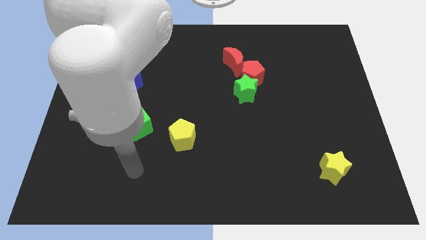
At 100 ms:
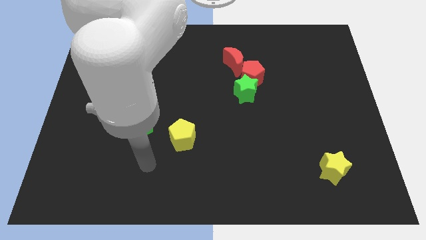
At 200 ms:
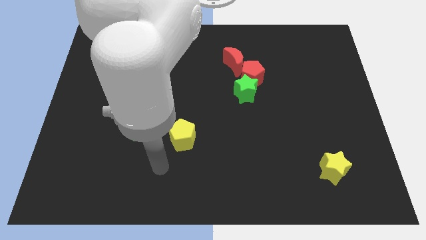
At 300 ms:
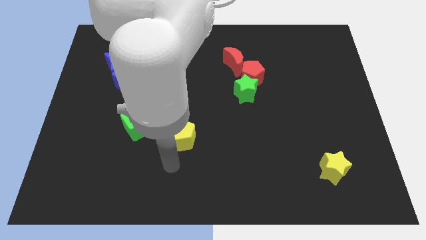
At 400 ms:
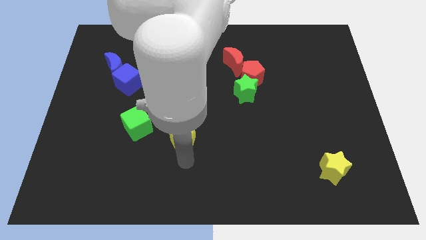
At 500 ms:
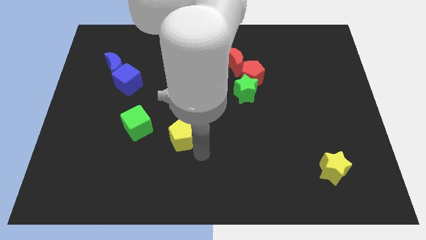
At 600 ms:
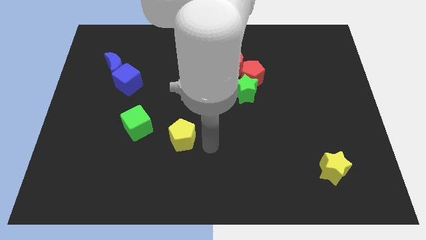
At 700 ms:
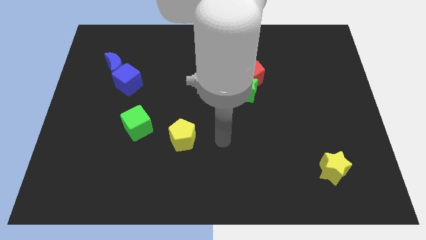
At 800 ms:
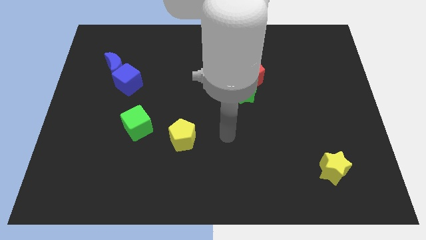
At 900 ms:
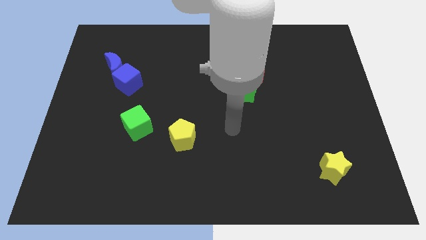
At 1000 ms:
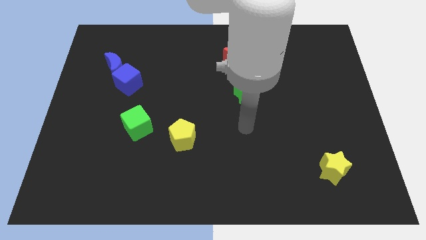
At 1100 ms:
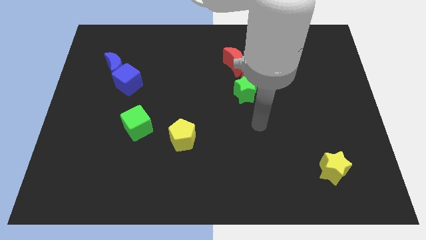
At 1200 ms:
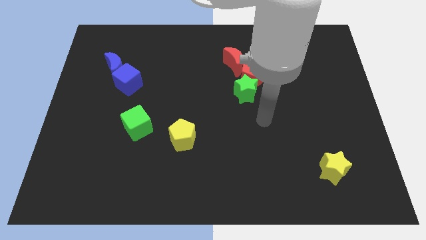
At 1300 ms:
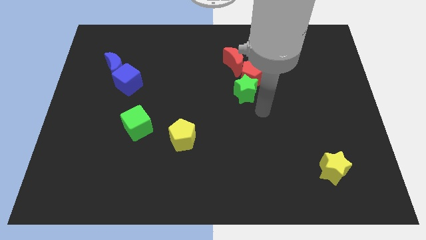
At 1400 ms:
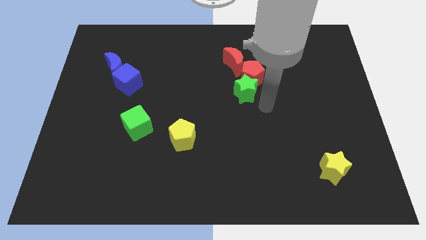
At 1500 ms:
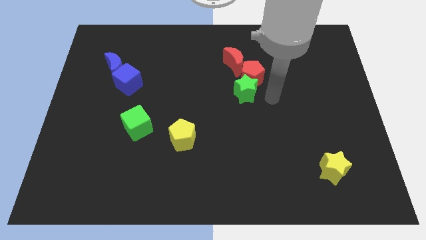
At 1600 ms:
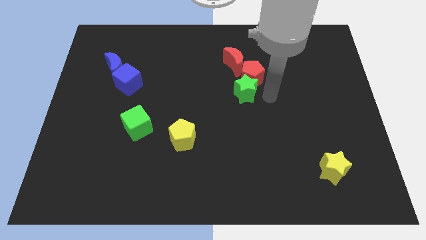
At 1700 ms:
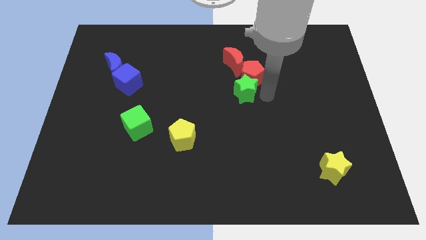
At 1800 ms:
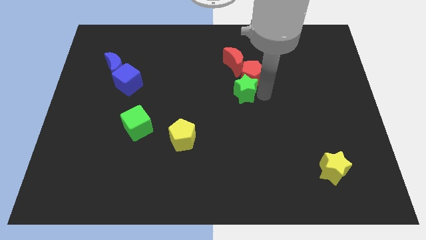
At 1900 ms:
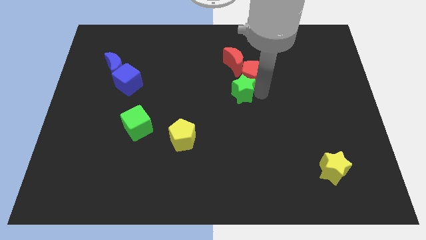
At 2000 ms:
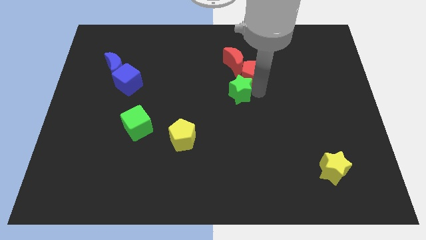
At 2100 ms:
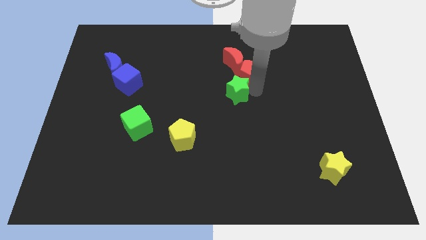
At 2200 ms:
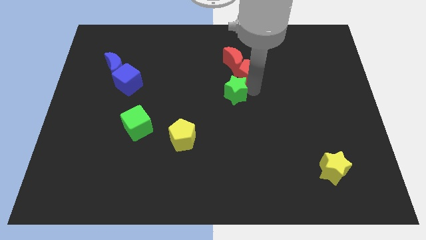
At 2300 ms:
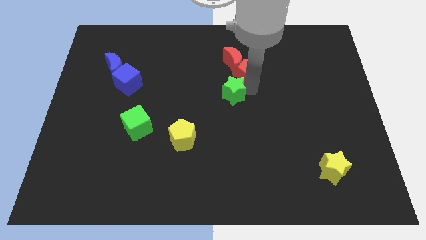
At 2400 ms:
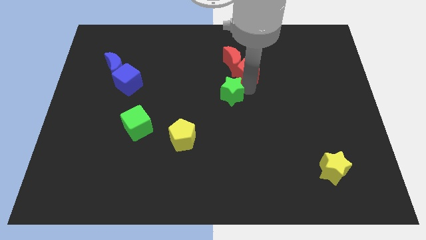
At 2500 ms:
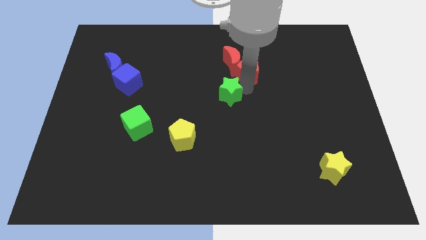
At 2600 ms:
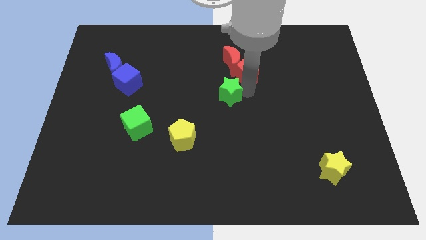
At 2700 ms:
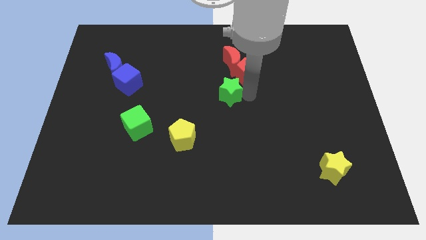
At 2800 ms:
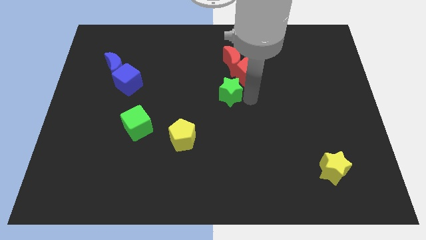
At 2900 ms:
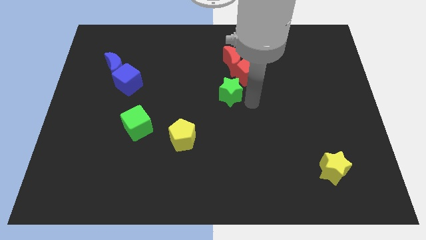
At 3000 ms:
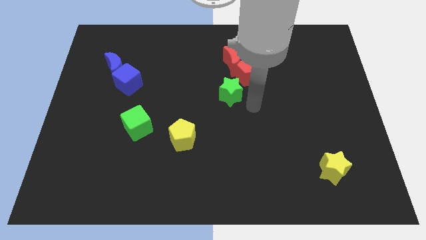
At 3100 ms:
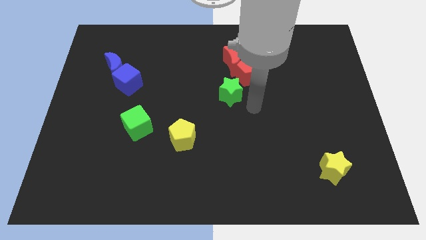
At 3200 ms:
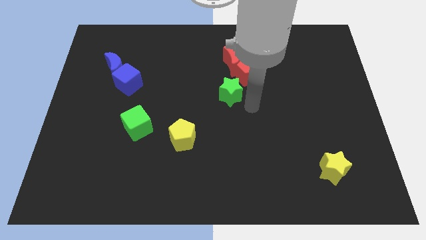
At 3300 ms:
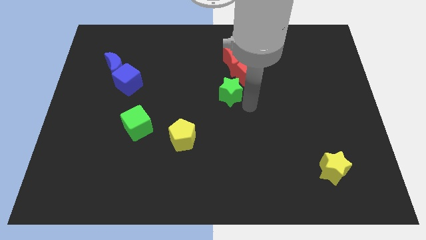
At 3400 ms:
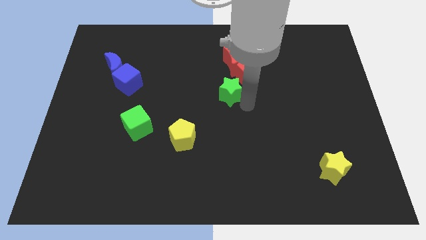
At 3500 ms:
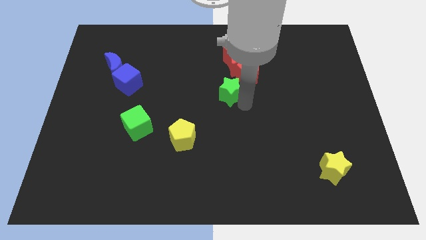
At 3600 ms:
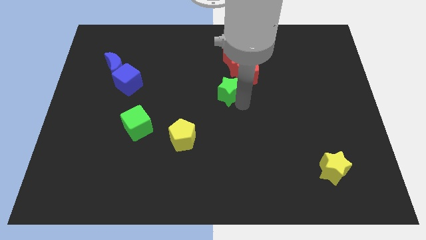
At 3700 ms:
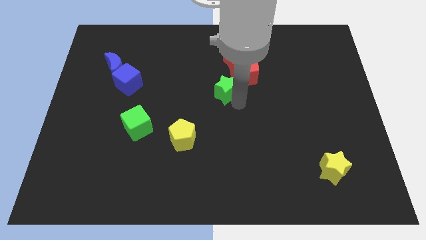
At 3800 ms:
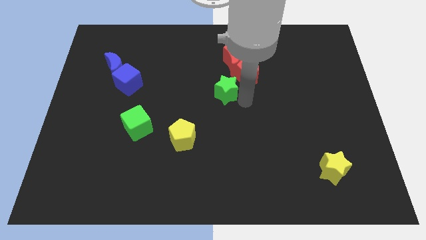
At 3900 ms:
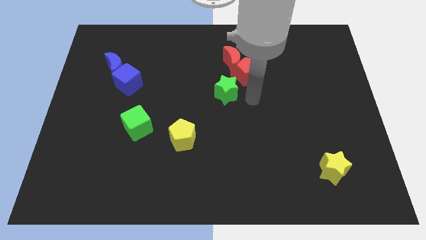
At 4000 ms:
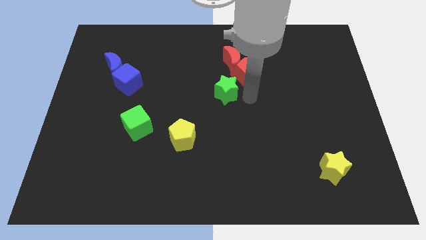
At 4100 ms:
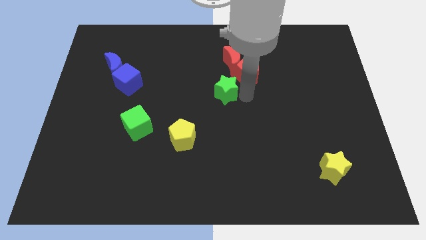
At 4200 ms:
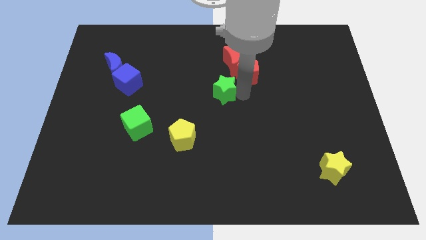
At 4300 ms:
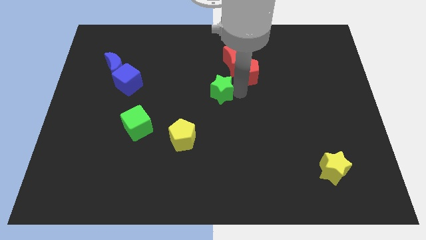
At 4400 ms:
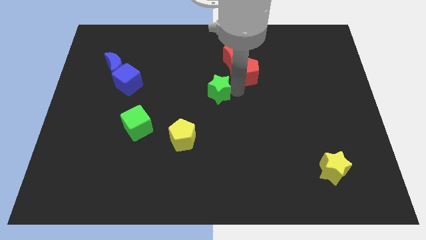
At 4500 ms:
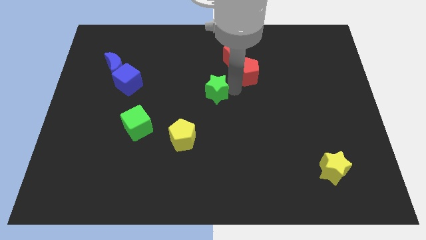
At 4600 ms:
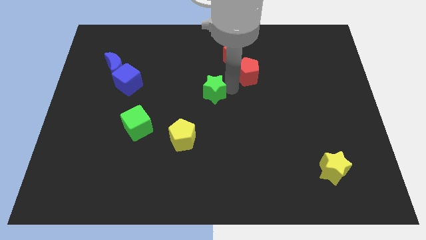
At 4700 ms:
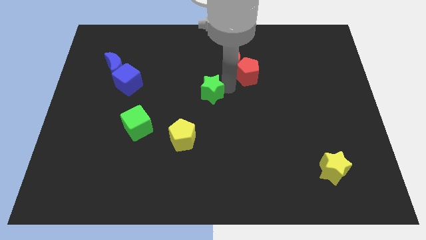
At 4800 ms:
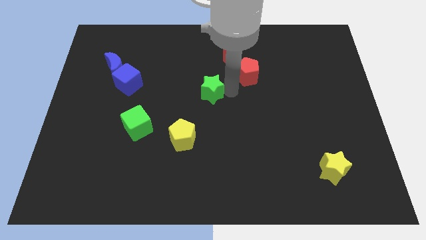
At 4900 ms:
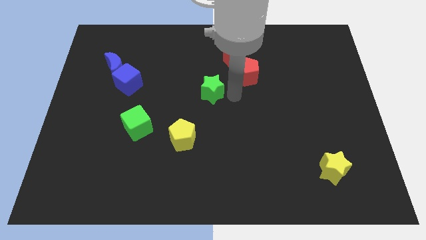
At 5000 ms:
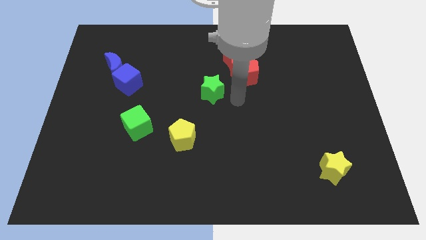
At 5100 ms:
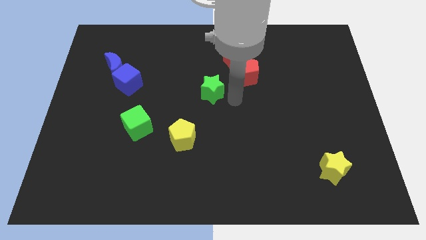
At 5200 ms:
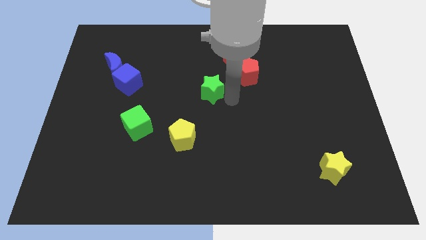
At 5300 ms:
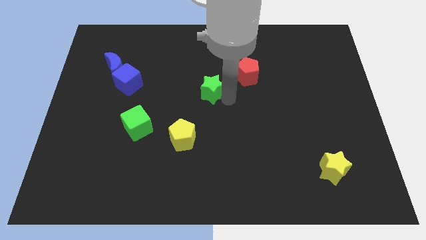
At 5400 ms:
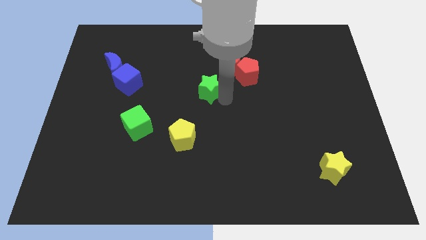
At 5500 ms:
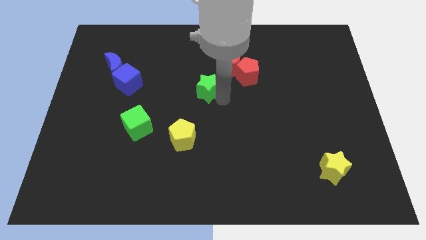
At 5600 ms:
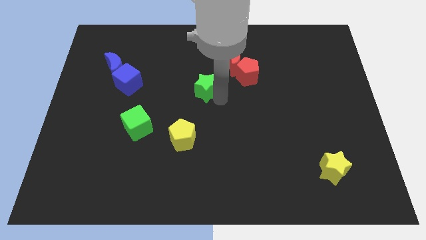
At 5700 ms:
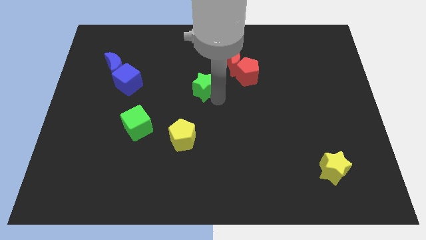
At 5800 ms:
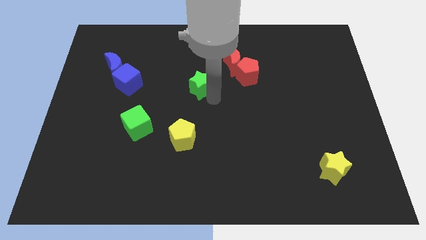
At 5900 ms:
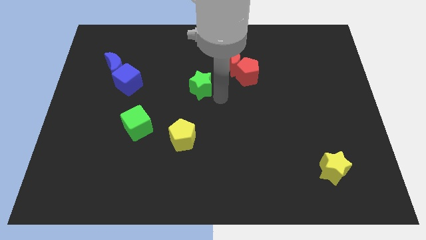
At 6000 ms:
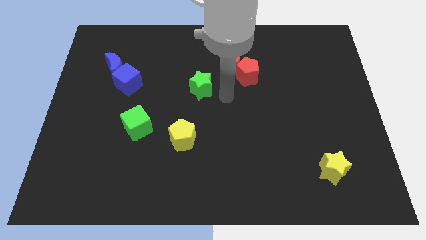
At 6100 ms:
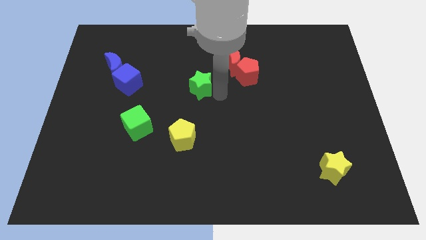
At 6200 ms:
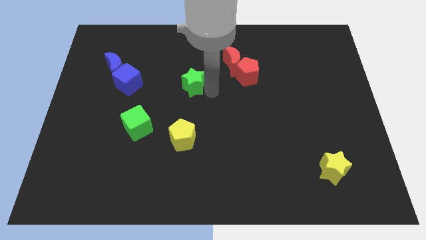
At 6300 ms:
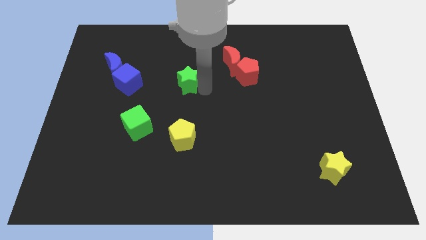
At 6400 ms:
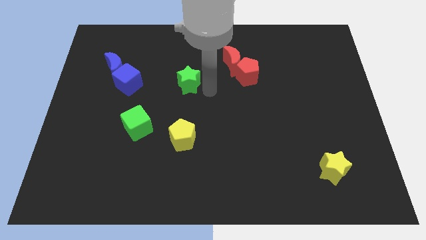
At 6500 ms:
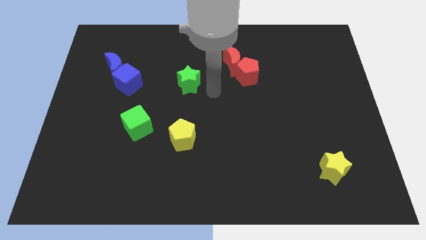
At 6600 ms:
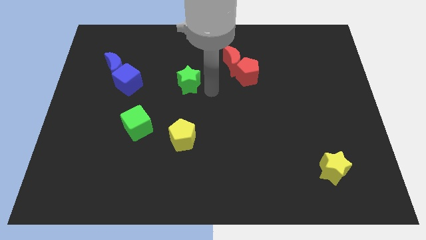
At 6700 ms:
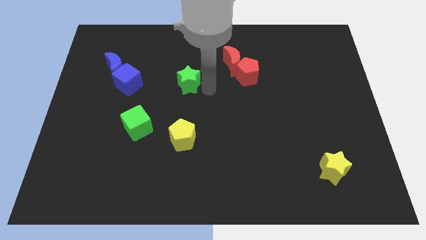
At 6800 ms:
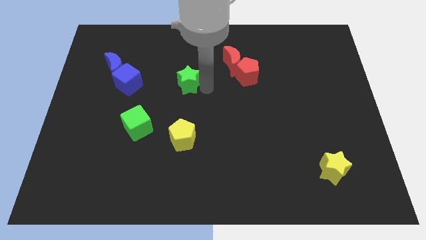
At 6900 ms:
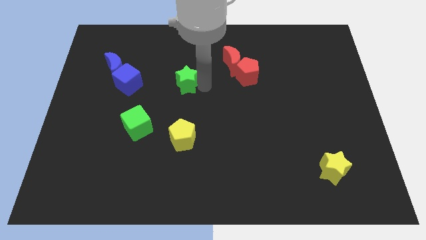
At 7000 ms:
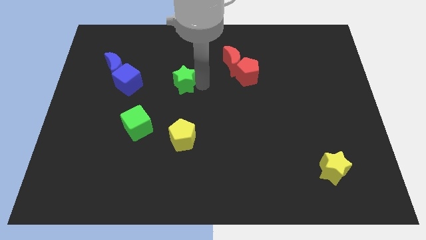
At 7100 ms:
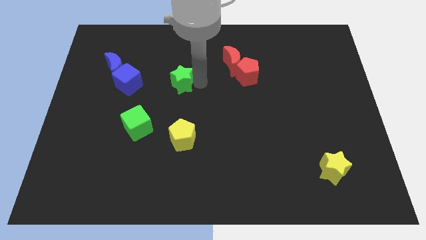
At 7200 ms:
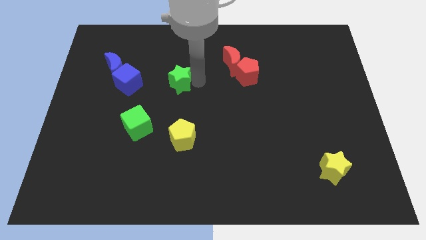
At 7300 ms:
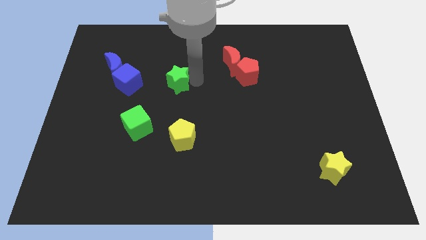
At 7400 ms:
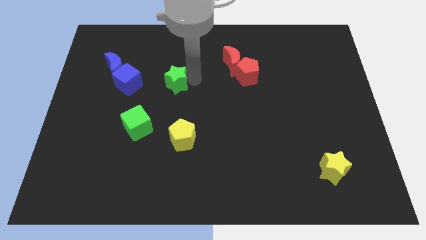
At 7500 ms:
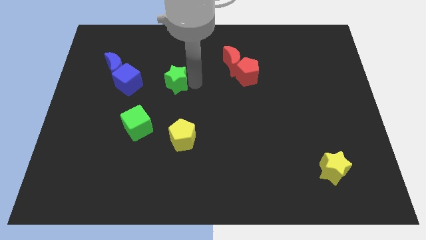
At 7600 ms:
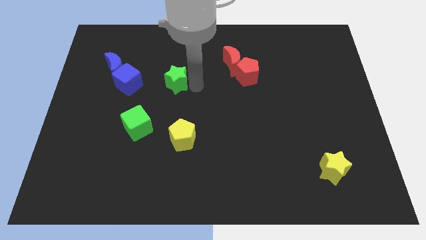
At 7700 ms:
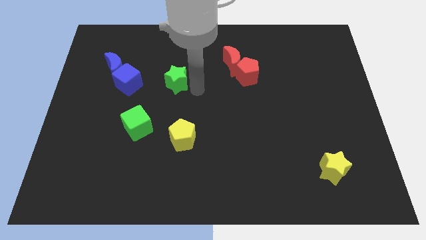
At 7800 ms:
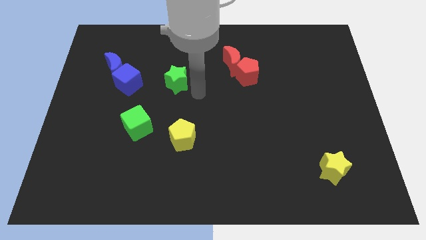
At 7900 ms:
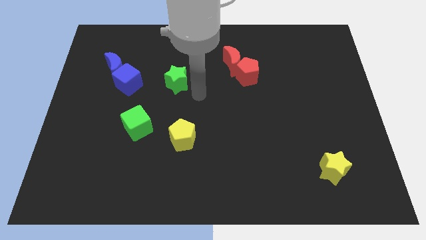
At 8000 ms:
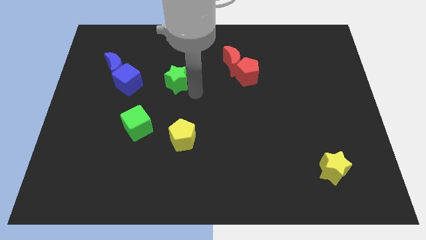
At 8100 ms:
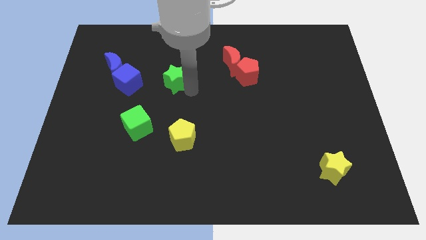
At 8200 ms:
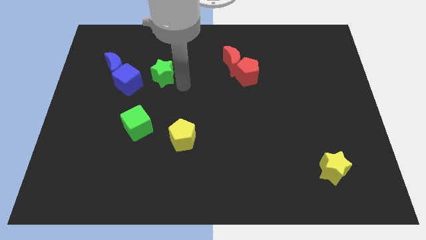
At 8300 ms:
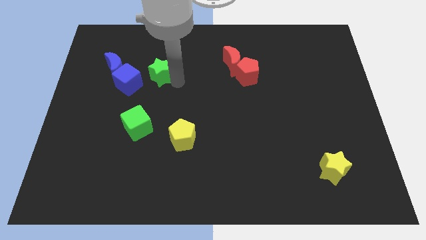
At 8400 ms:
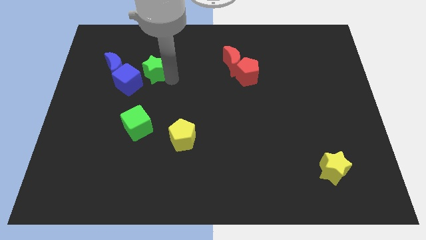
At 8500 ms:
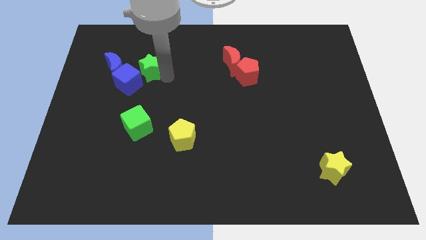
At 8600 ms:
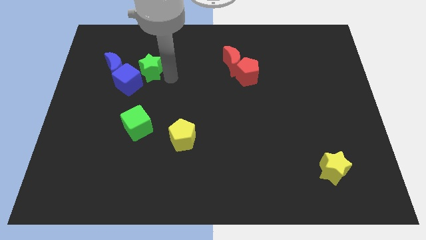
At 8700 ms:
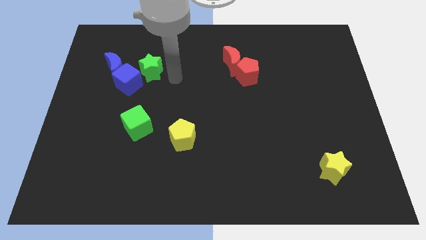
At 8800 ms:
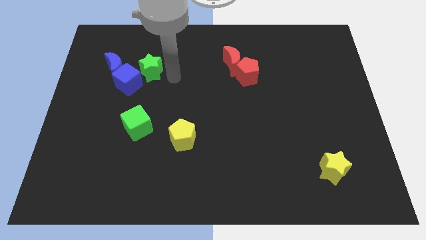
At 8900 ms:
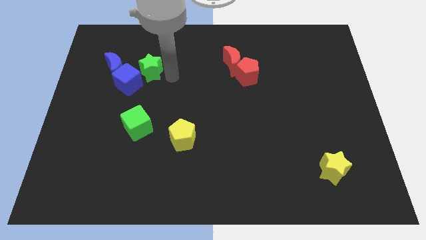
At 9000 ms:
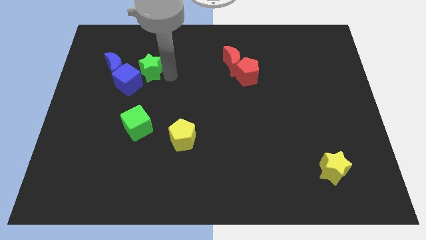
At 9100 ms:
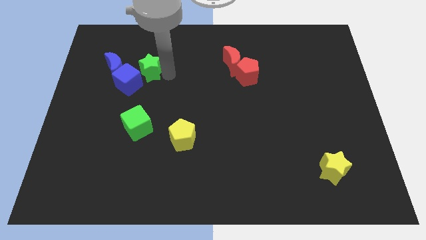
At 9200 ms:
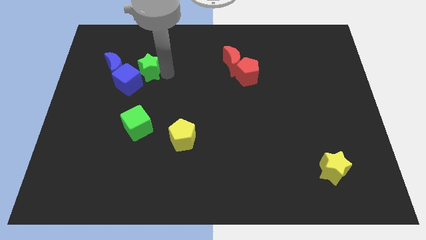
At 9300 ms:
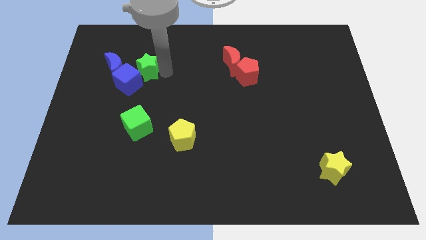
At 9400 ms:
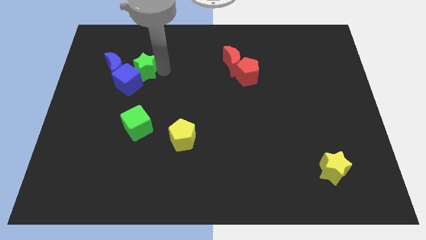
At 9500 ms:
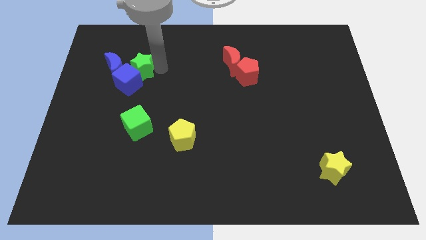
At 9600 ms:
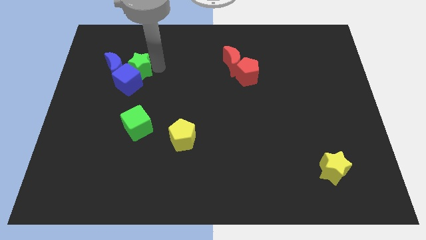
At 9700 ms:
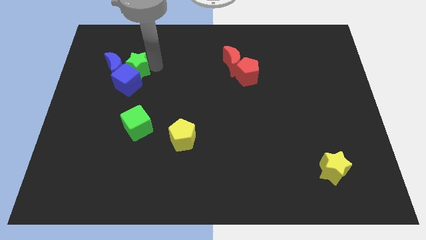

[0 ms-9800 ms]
push the green star close to the blue moon
